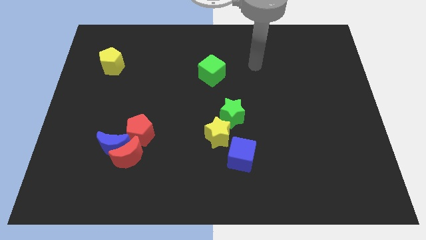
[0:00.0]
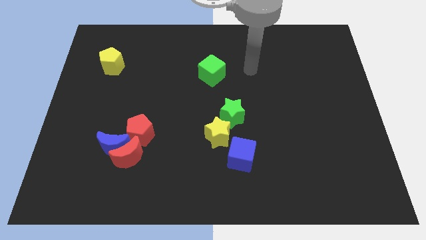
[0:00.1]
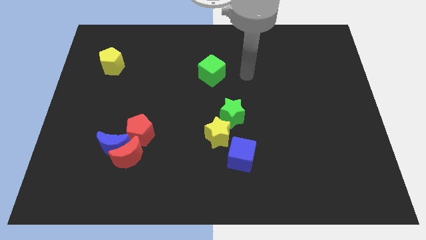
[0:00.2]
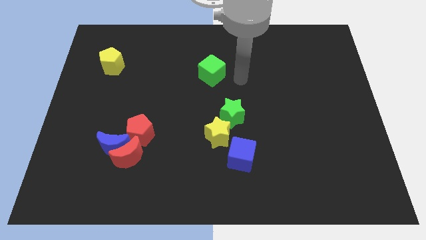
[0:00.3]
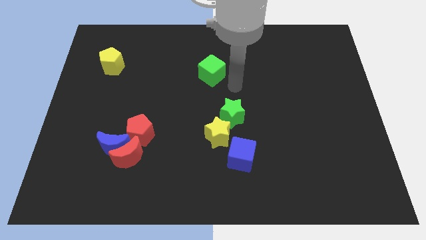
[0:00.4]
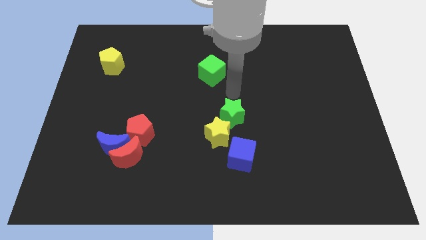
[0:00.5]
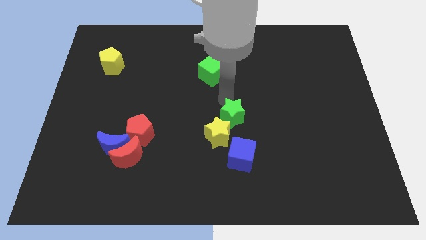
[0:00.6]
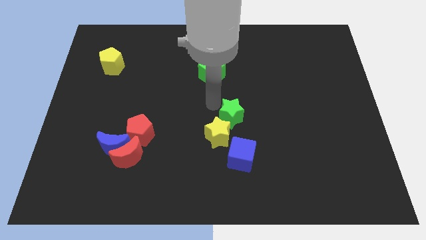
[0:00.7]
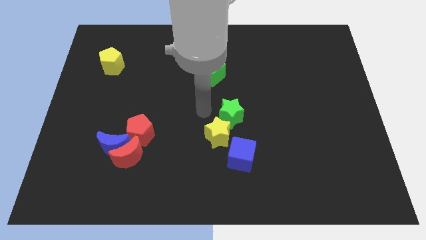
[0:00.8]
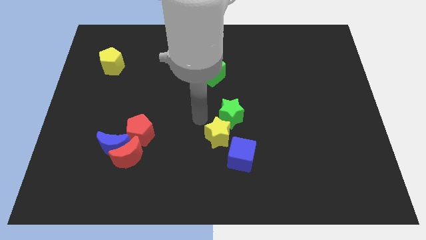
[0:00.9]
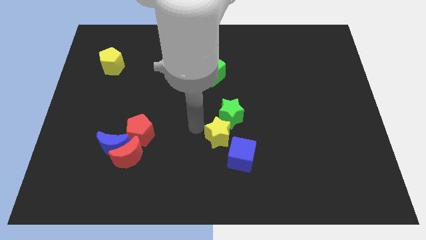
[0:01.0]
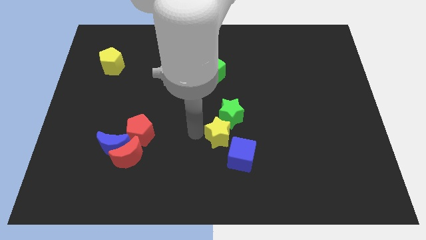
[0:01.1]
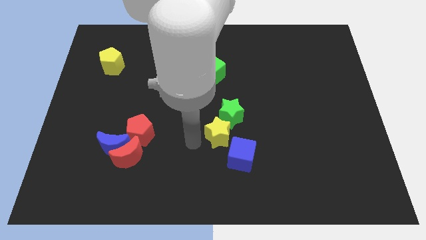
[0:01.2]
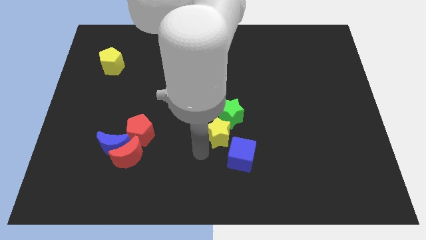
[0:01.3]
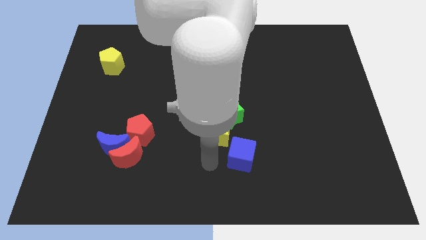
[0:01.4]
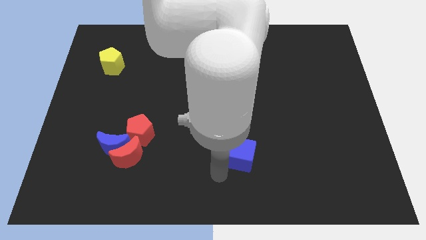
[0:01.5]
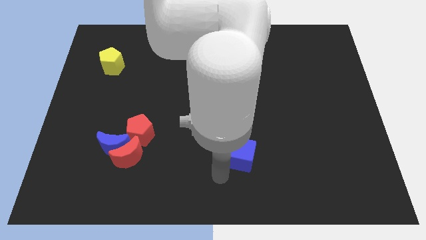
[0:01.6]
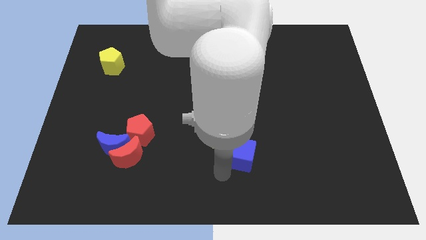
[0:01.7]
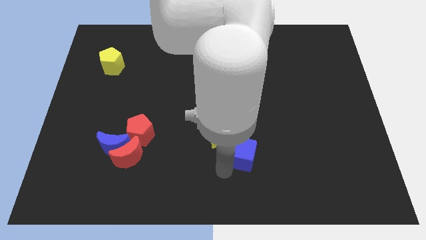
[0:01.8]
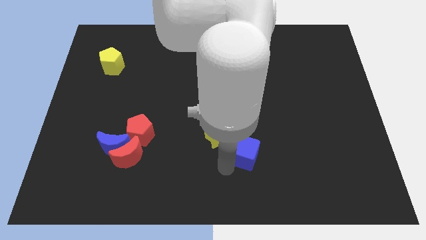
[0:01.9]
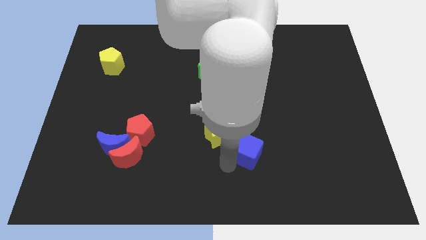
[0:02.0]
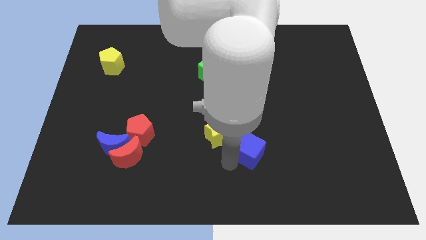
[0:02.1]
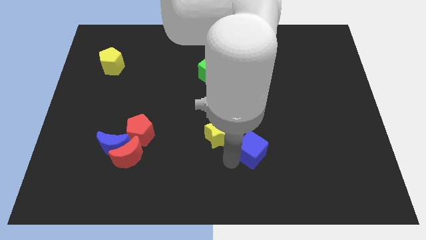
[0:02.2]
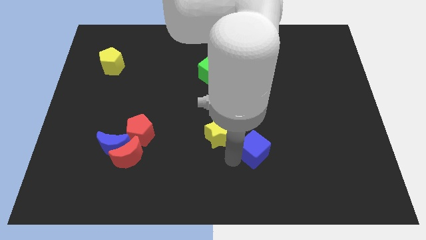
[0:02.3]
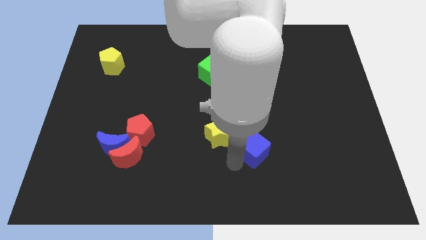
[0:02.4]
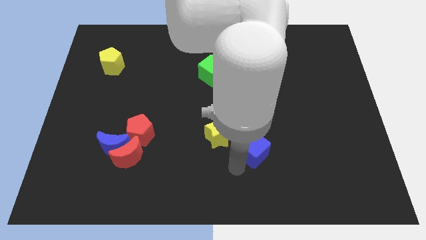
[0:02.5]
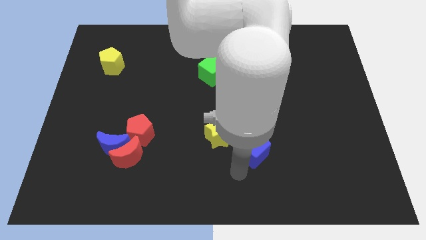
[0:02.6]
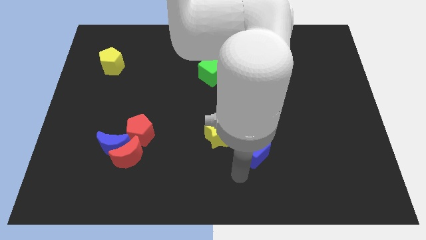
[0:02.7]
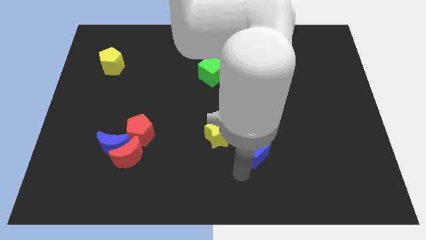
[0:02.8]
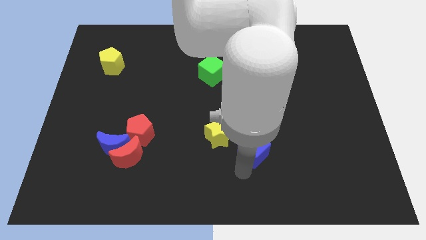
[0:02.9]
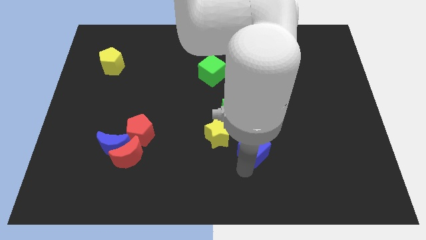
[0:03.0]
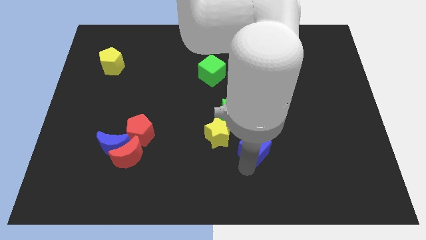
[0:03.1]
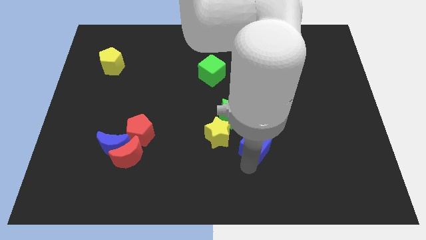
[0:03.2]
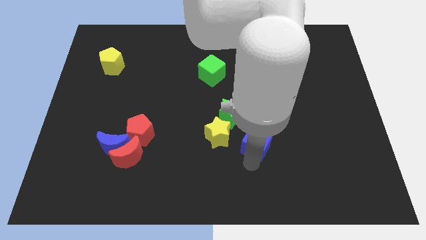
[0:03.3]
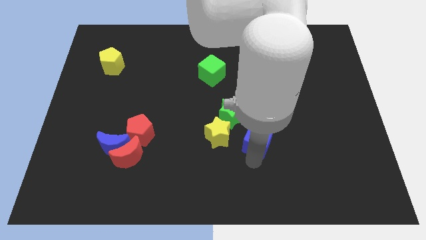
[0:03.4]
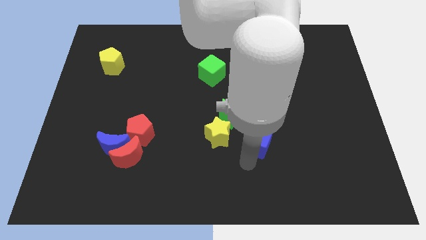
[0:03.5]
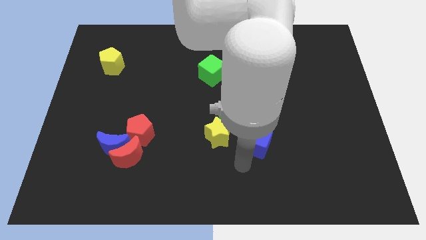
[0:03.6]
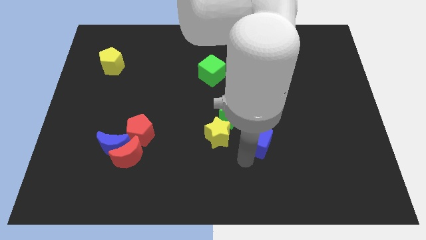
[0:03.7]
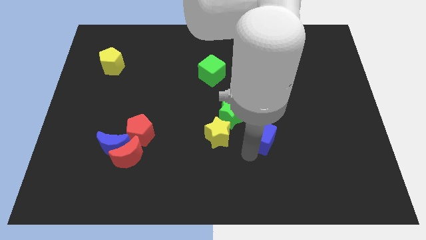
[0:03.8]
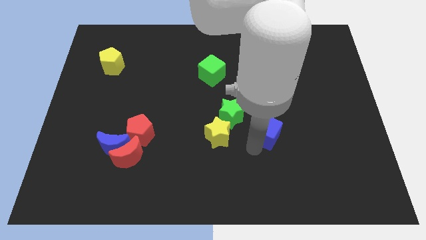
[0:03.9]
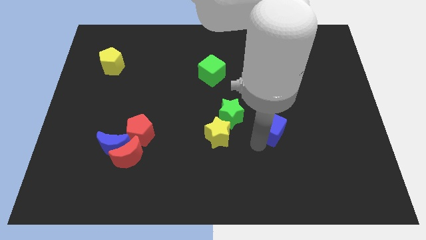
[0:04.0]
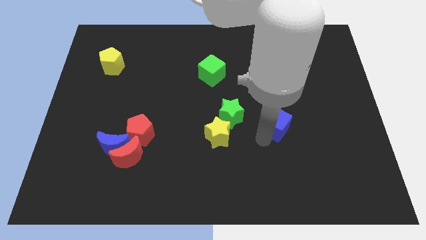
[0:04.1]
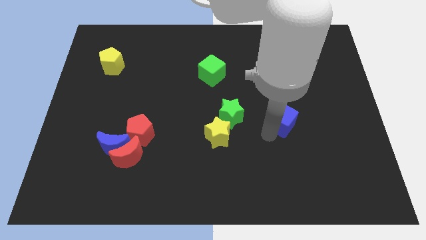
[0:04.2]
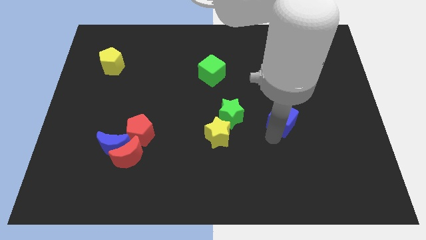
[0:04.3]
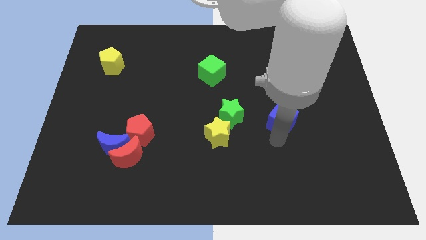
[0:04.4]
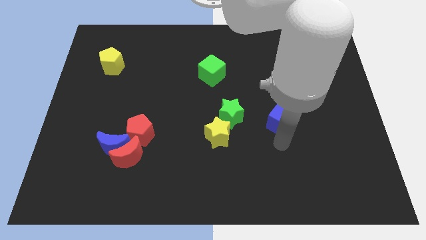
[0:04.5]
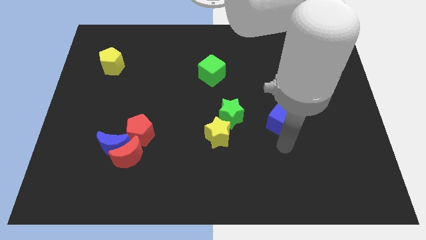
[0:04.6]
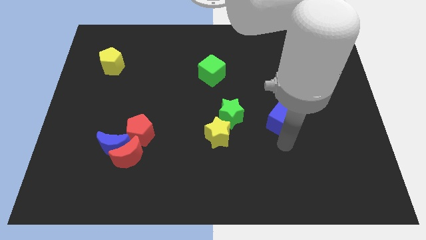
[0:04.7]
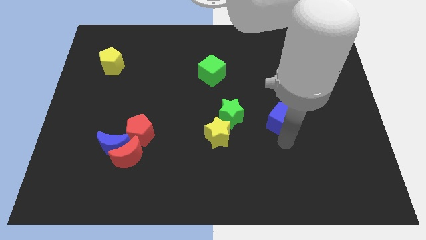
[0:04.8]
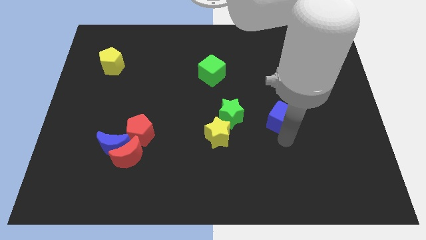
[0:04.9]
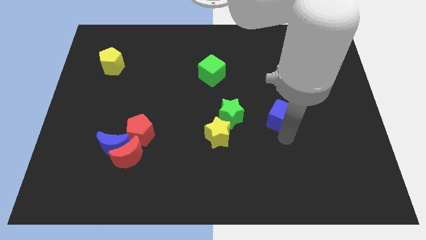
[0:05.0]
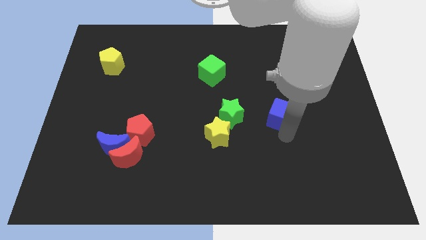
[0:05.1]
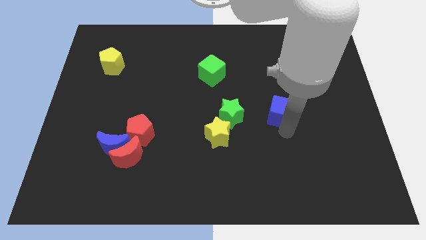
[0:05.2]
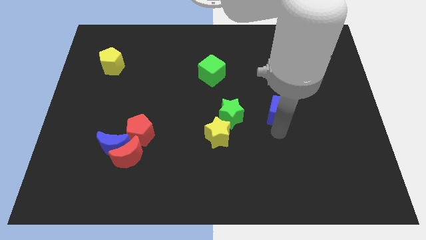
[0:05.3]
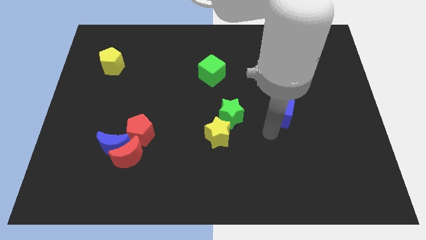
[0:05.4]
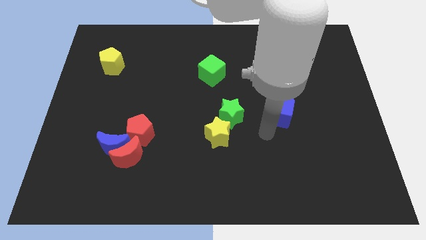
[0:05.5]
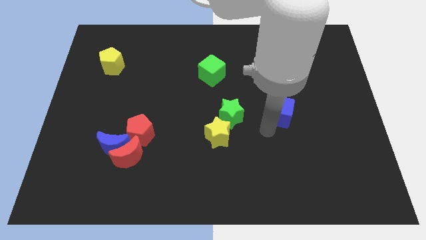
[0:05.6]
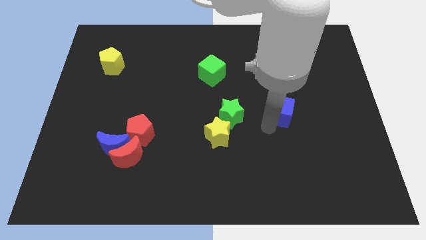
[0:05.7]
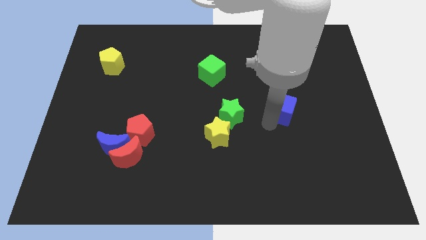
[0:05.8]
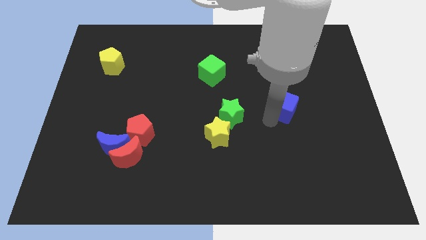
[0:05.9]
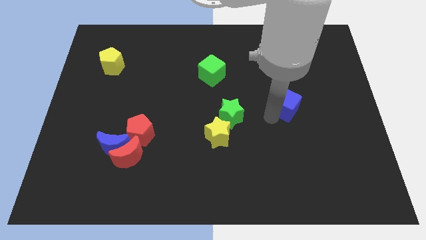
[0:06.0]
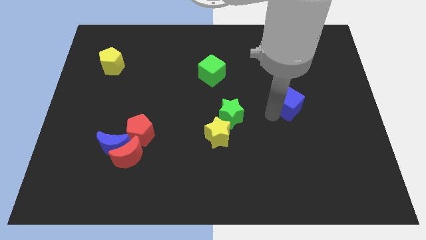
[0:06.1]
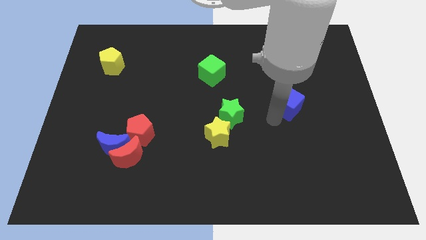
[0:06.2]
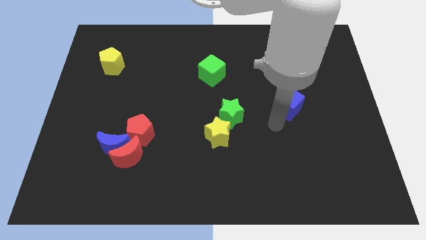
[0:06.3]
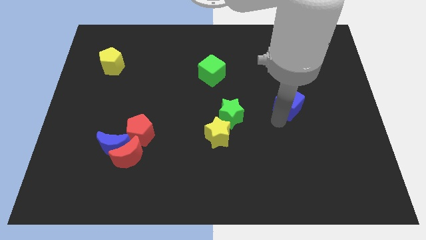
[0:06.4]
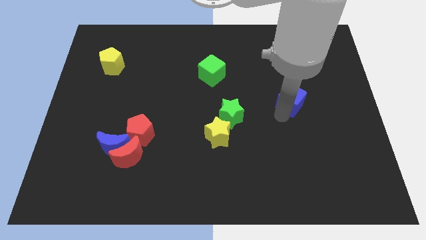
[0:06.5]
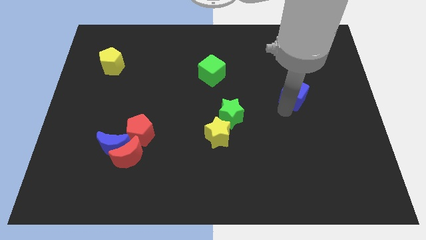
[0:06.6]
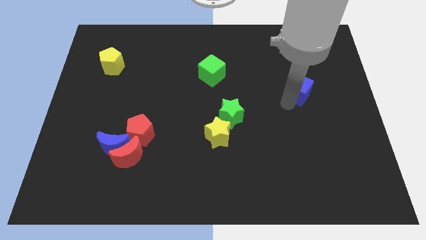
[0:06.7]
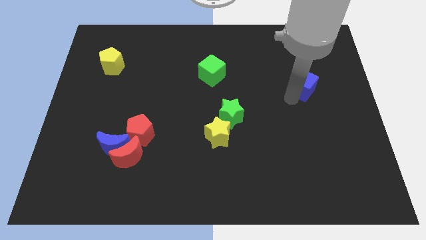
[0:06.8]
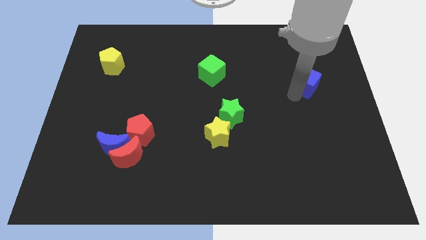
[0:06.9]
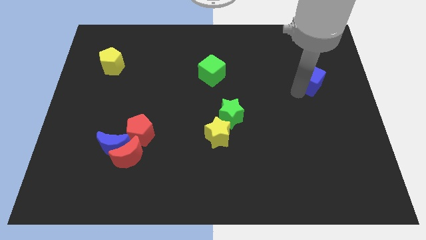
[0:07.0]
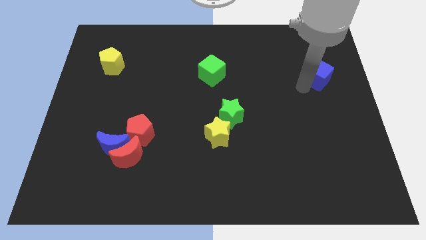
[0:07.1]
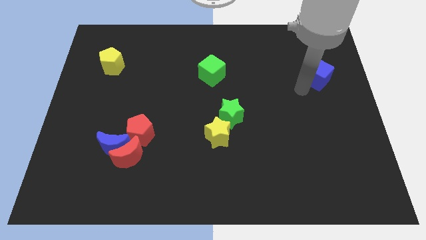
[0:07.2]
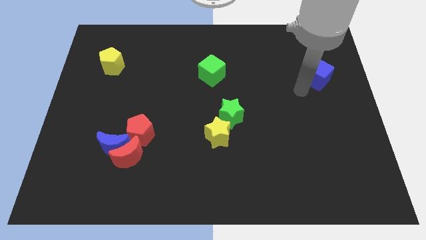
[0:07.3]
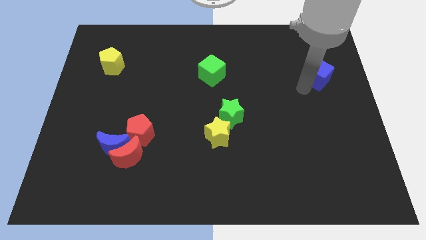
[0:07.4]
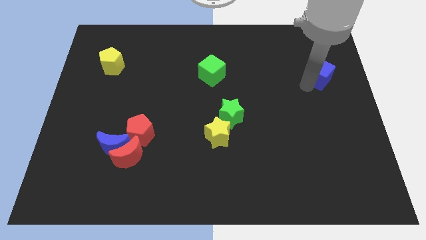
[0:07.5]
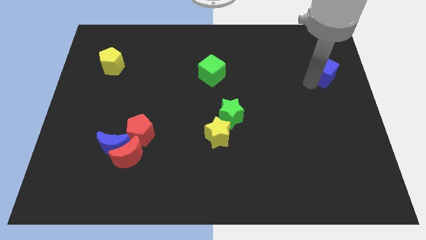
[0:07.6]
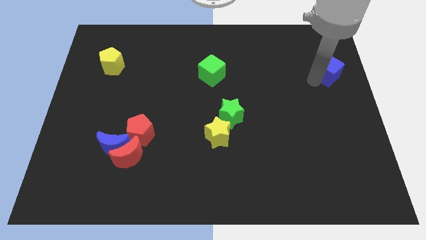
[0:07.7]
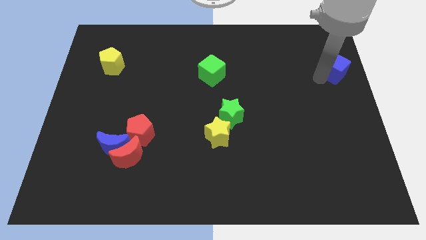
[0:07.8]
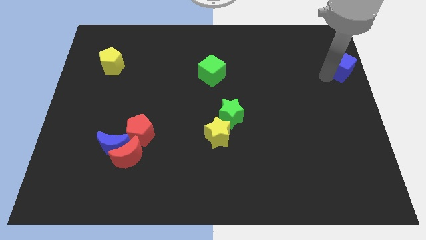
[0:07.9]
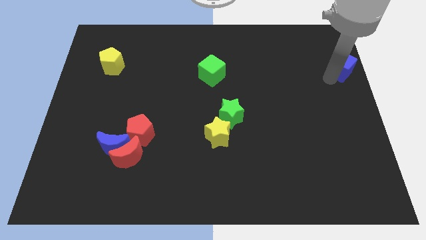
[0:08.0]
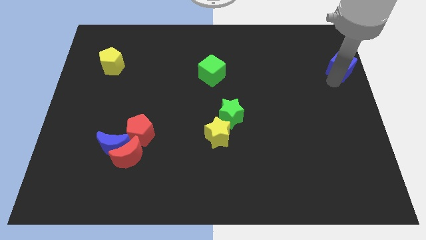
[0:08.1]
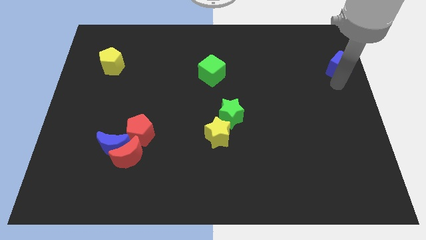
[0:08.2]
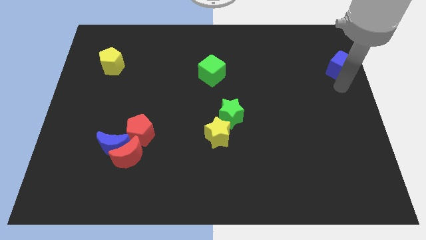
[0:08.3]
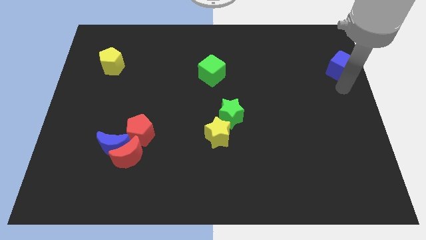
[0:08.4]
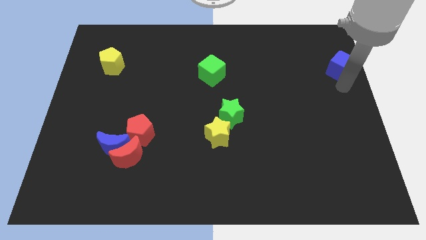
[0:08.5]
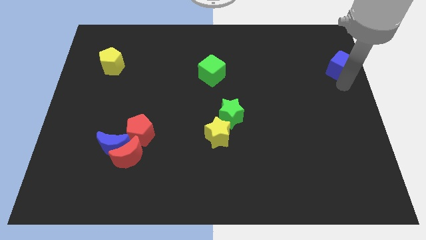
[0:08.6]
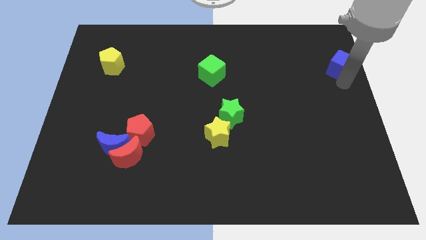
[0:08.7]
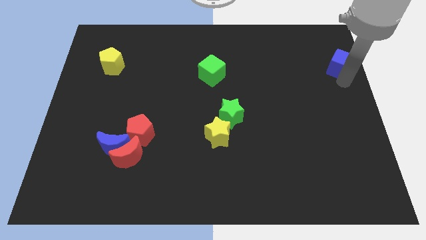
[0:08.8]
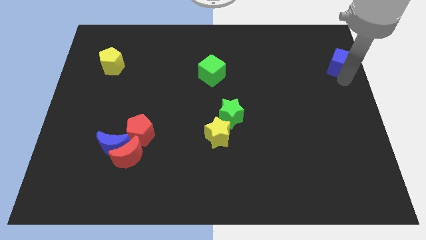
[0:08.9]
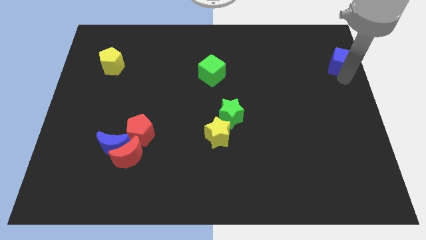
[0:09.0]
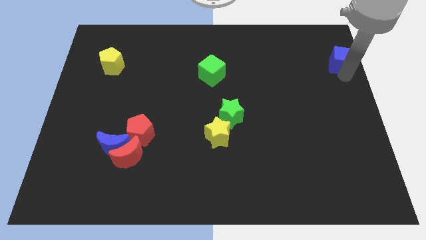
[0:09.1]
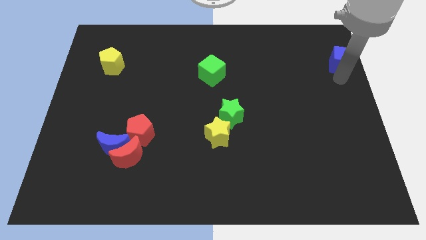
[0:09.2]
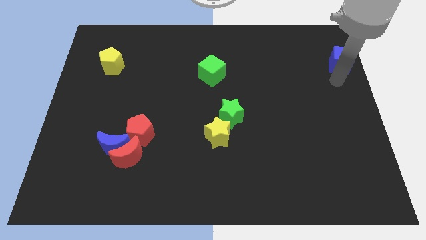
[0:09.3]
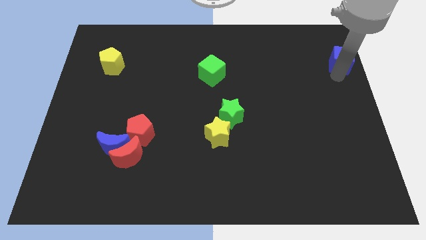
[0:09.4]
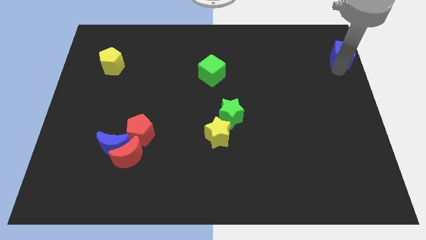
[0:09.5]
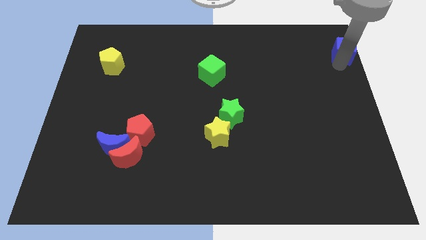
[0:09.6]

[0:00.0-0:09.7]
push the blue cube to the upper right corner
